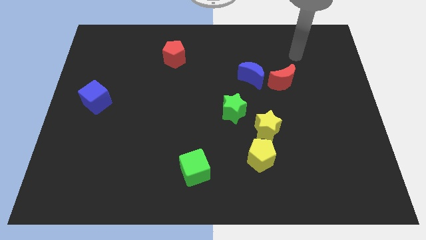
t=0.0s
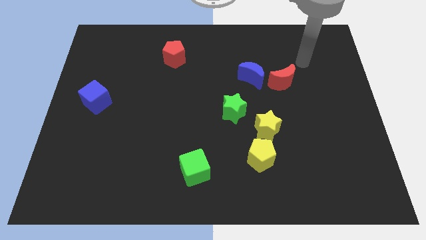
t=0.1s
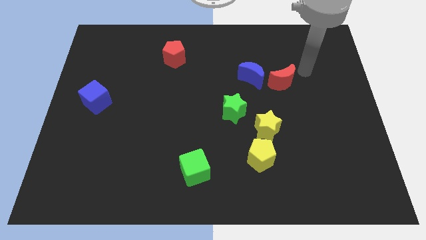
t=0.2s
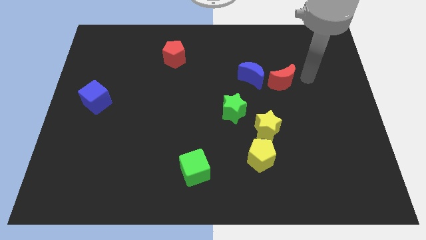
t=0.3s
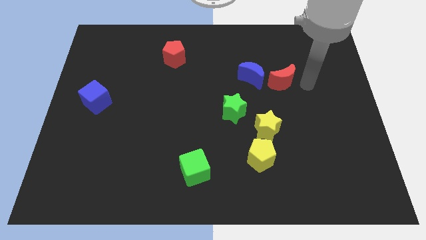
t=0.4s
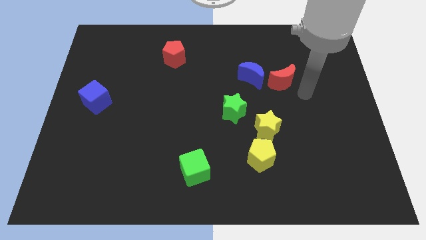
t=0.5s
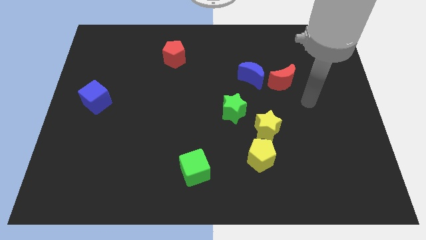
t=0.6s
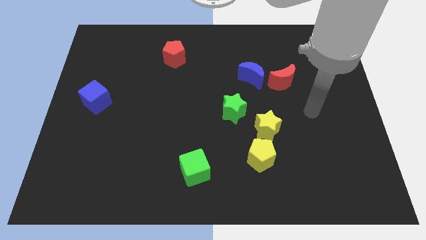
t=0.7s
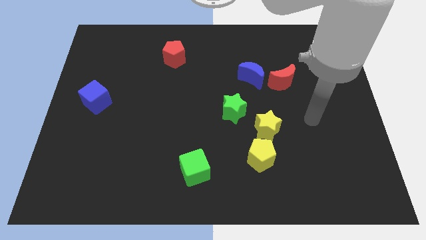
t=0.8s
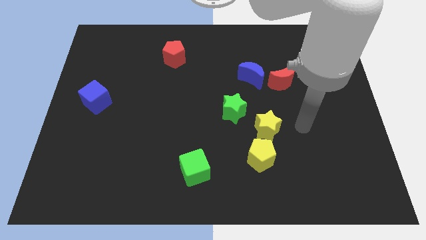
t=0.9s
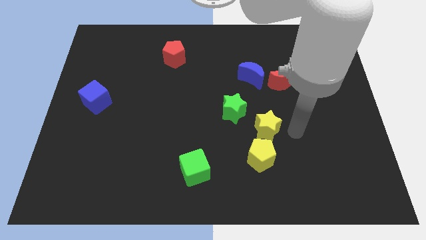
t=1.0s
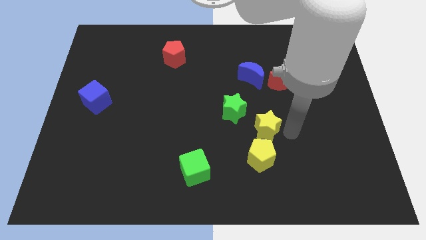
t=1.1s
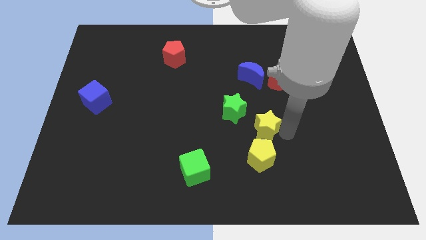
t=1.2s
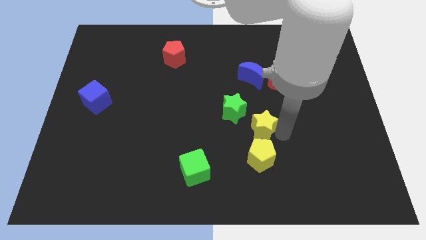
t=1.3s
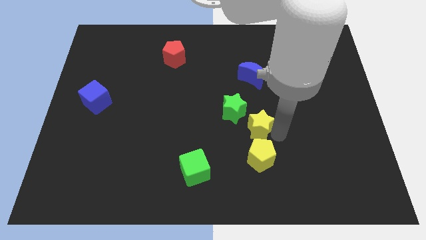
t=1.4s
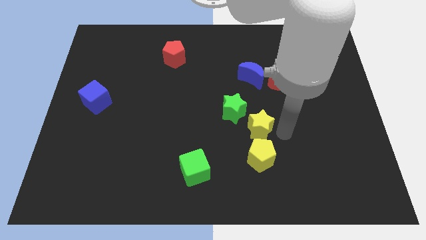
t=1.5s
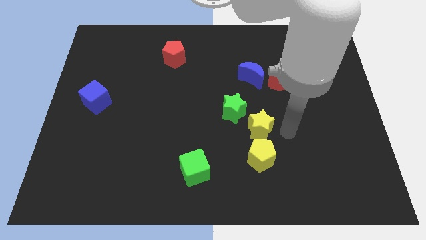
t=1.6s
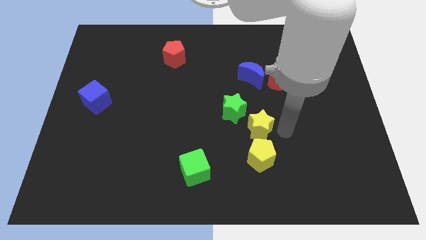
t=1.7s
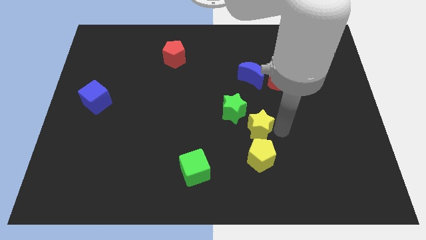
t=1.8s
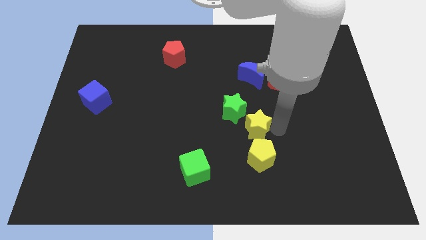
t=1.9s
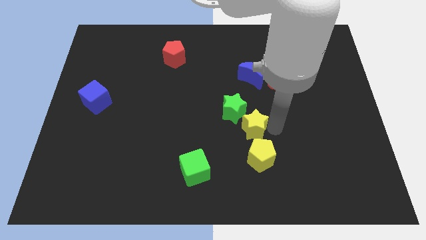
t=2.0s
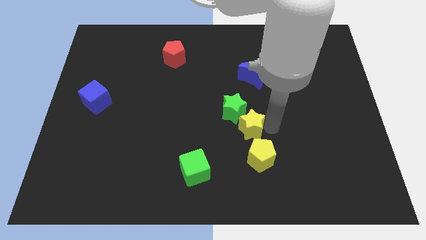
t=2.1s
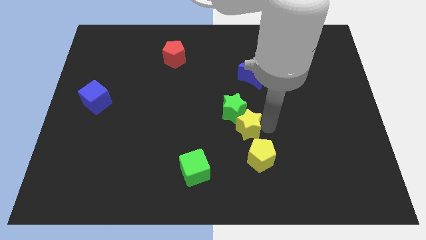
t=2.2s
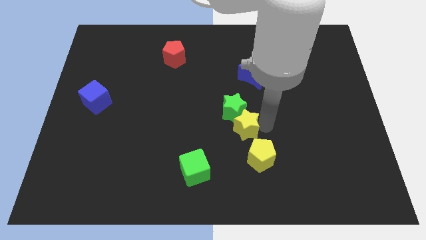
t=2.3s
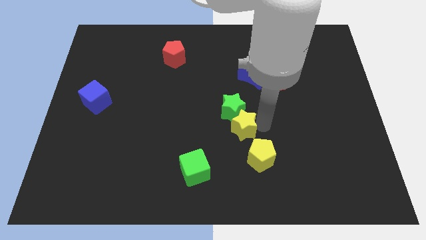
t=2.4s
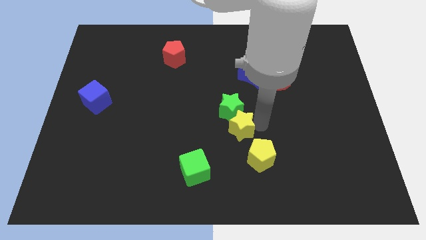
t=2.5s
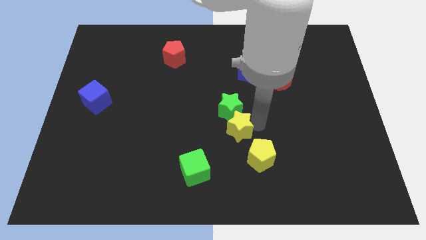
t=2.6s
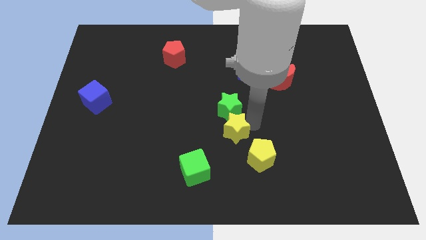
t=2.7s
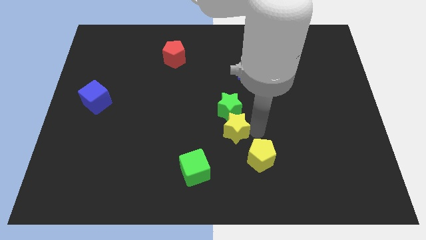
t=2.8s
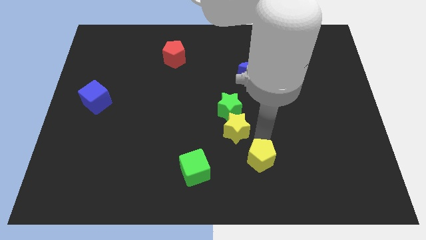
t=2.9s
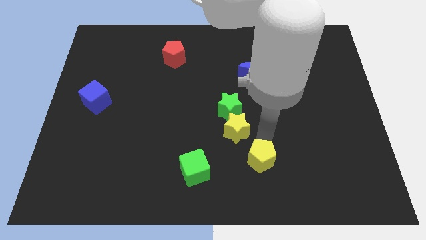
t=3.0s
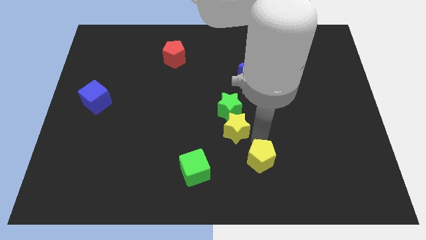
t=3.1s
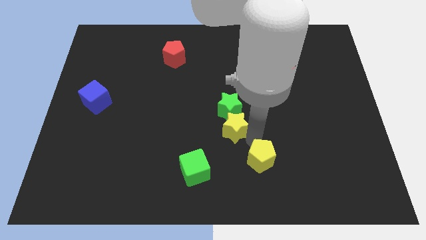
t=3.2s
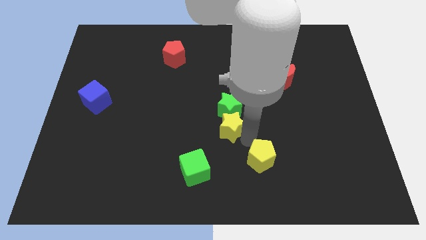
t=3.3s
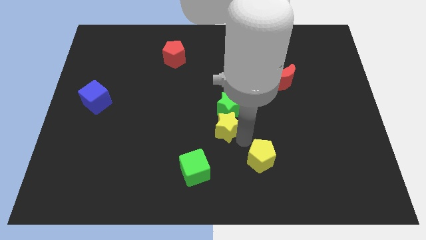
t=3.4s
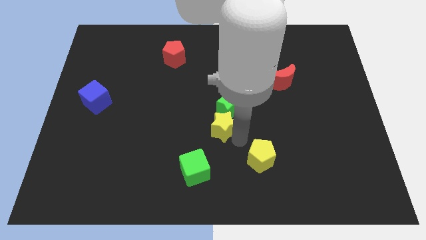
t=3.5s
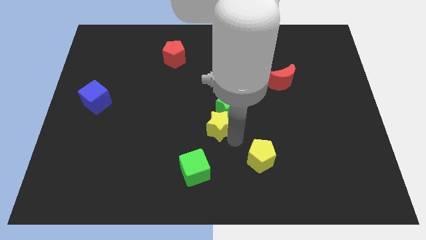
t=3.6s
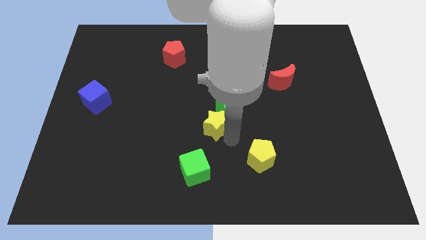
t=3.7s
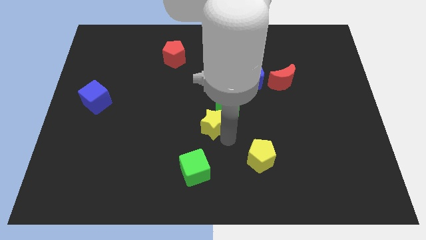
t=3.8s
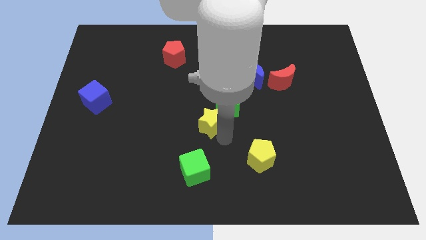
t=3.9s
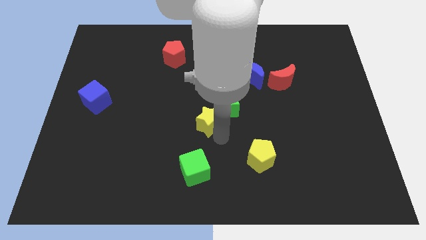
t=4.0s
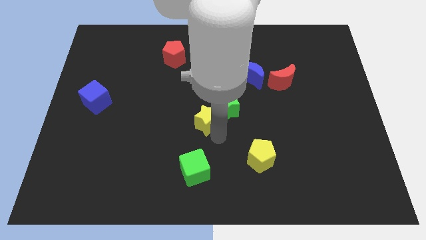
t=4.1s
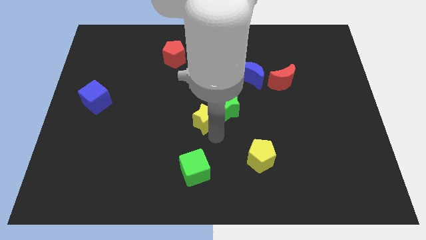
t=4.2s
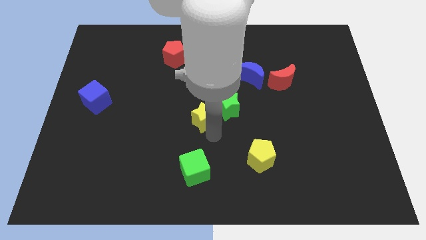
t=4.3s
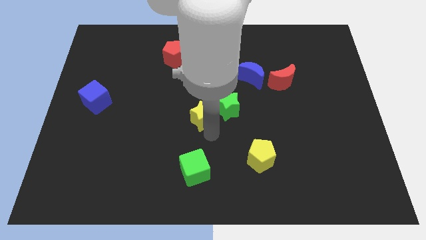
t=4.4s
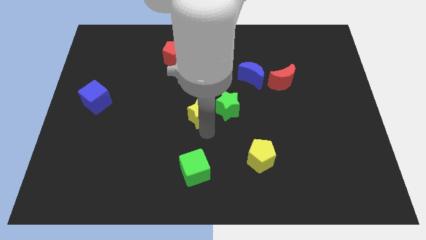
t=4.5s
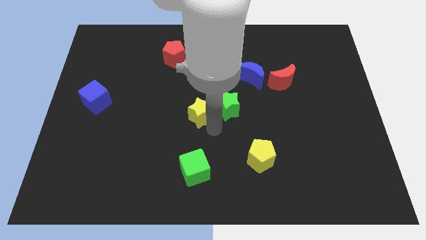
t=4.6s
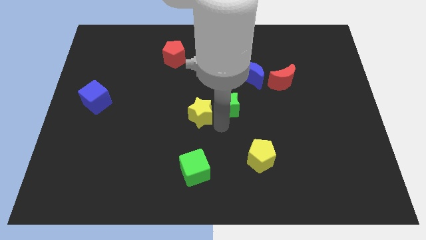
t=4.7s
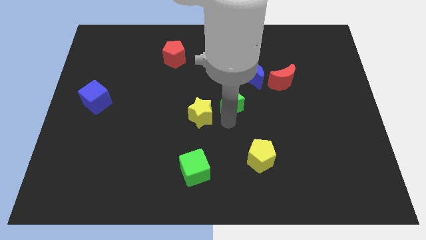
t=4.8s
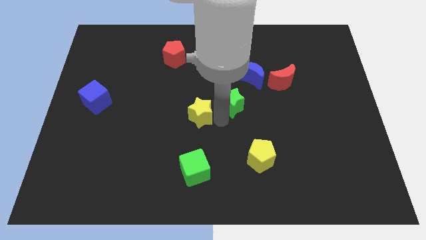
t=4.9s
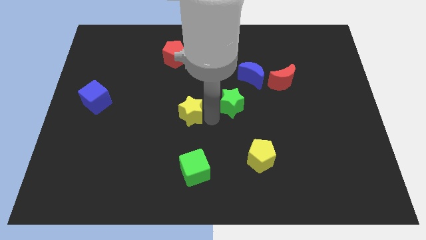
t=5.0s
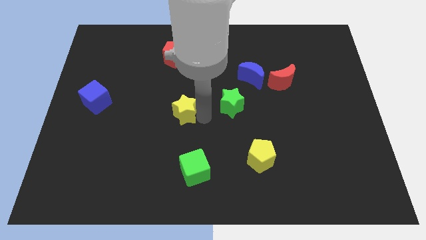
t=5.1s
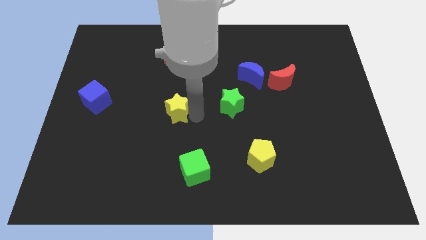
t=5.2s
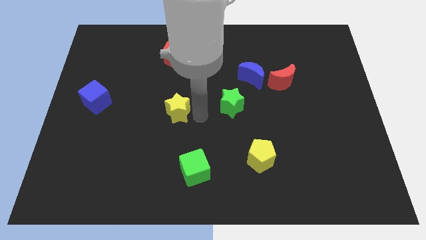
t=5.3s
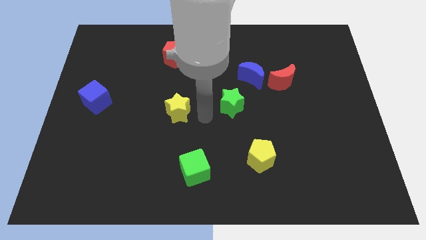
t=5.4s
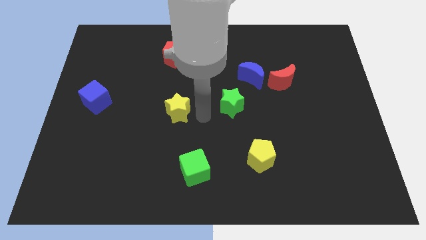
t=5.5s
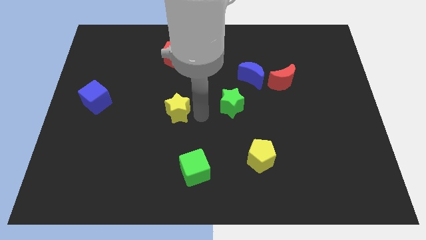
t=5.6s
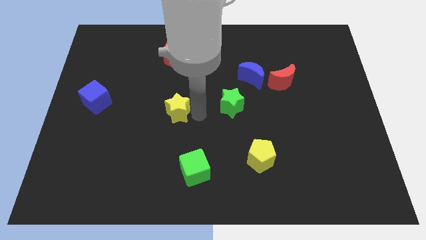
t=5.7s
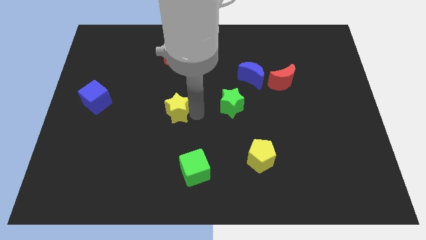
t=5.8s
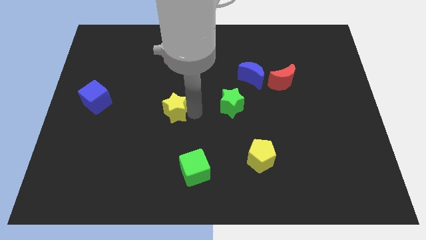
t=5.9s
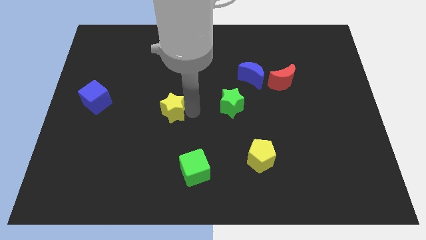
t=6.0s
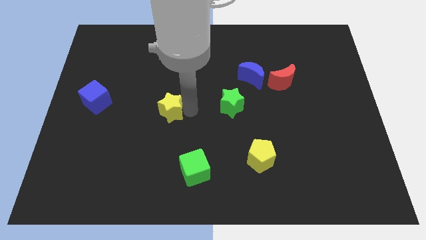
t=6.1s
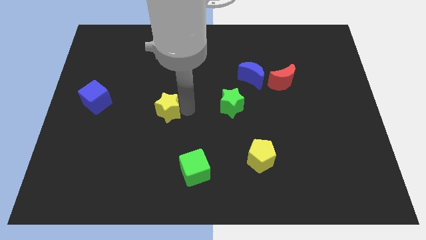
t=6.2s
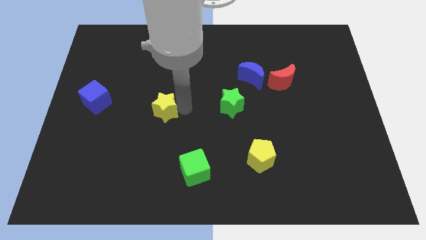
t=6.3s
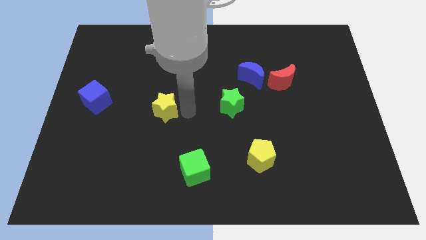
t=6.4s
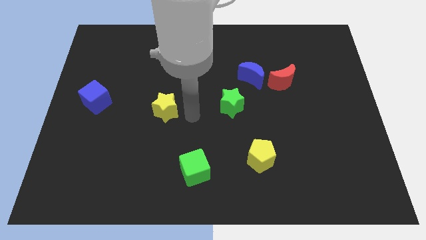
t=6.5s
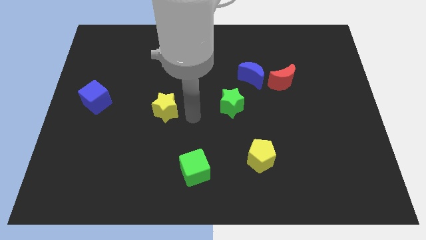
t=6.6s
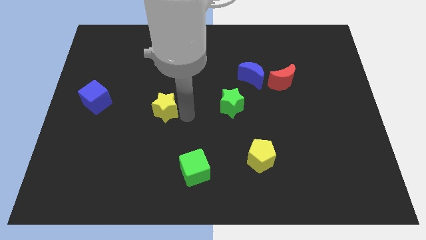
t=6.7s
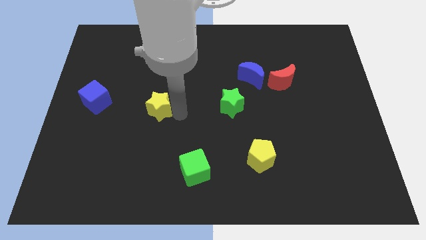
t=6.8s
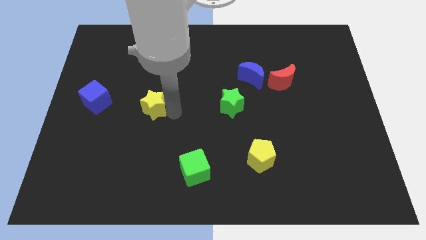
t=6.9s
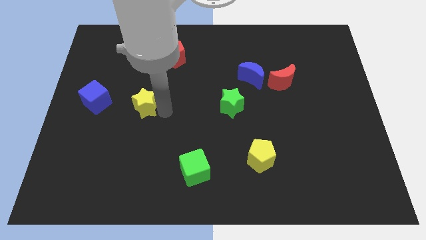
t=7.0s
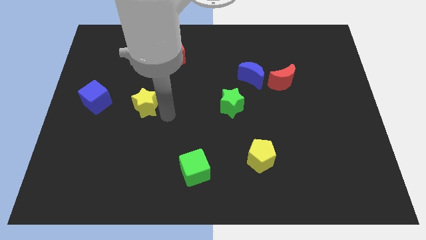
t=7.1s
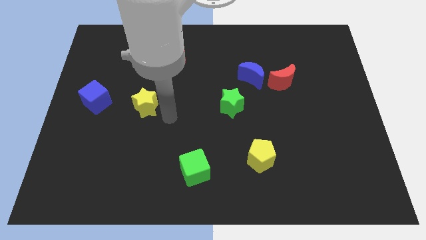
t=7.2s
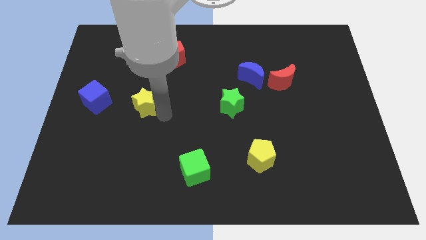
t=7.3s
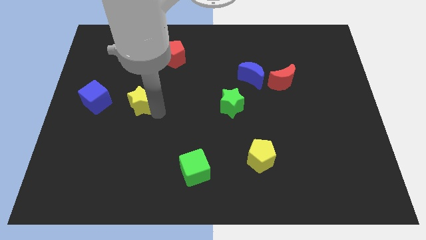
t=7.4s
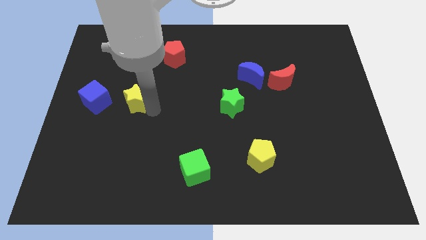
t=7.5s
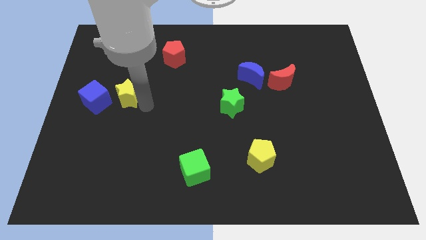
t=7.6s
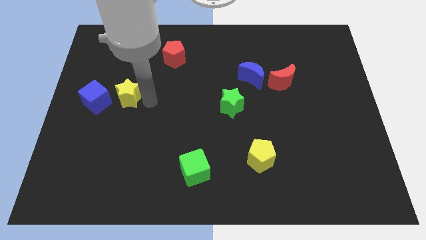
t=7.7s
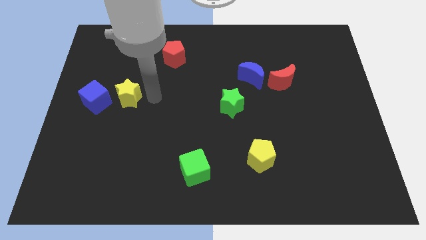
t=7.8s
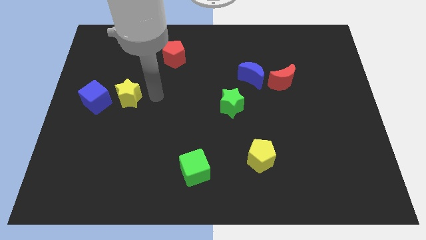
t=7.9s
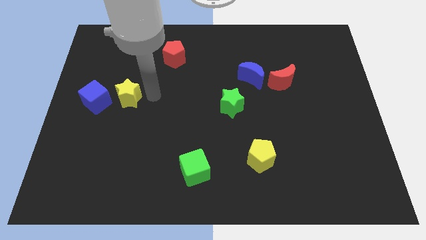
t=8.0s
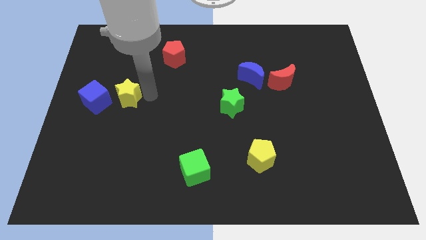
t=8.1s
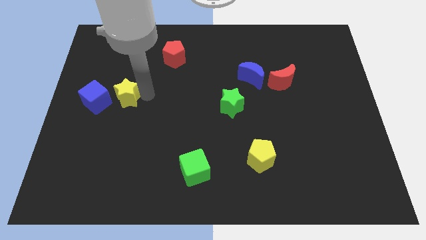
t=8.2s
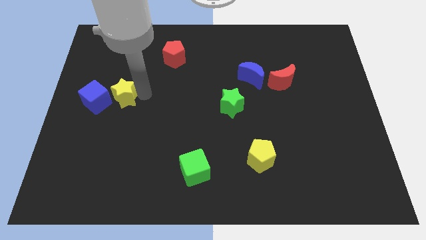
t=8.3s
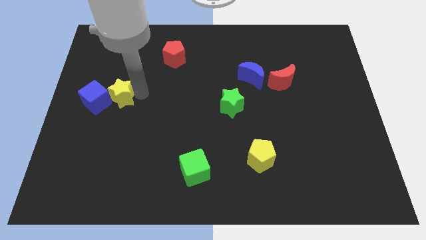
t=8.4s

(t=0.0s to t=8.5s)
push the yellow star to the blue cube
